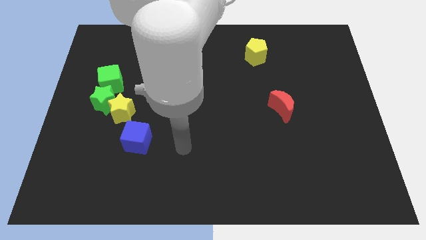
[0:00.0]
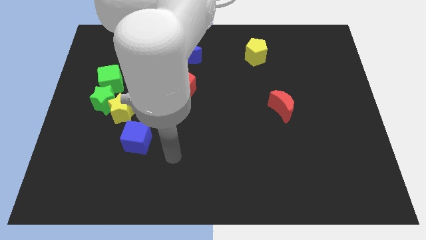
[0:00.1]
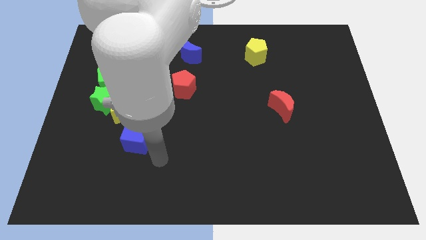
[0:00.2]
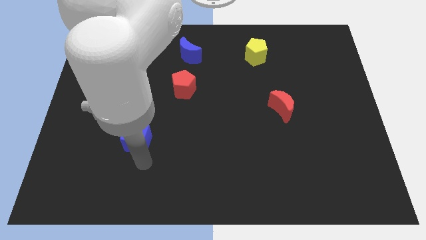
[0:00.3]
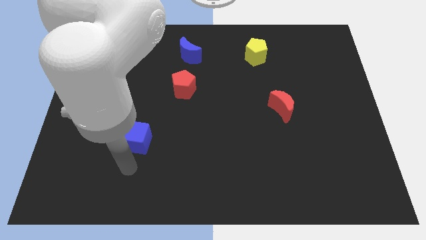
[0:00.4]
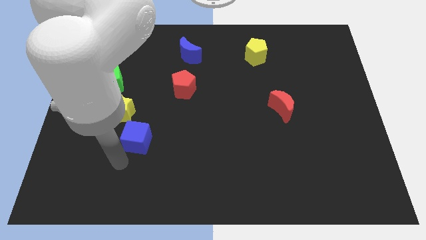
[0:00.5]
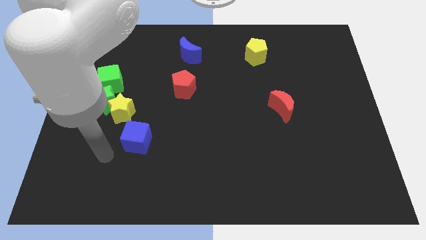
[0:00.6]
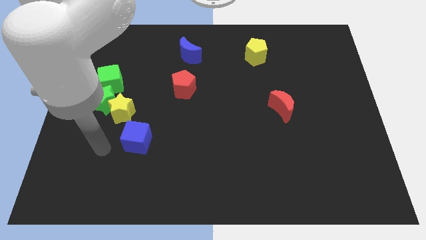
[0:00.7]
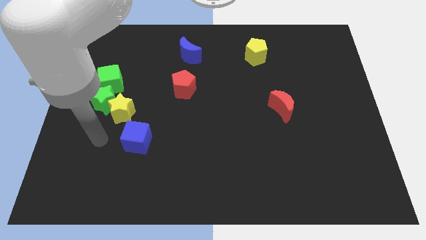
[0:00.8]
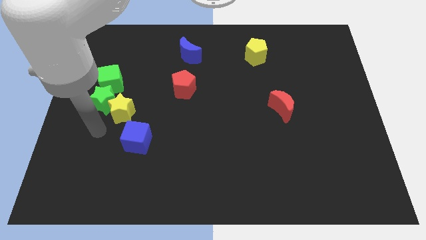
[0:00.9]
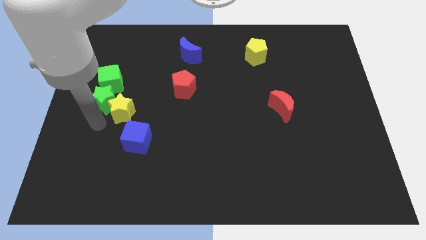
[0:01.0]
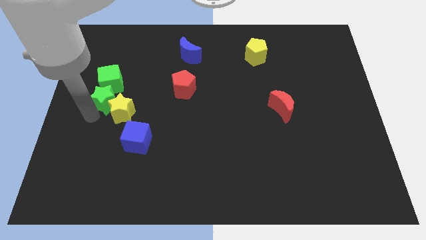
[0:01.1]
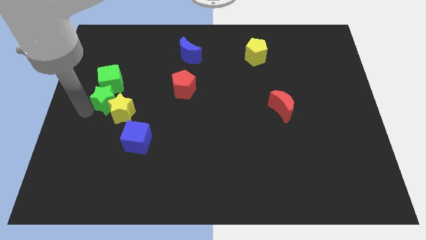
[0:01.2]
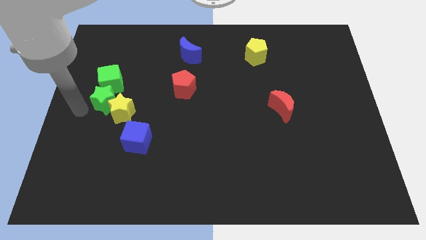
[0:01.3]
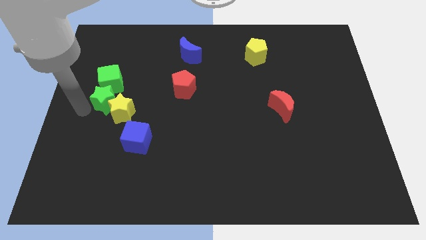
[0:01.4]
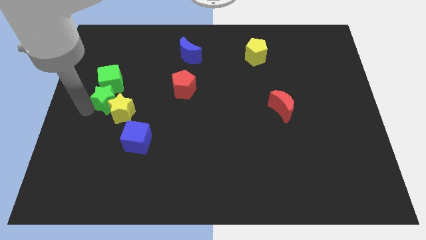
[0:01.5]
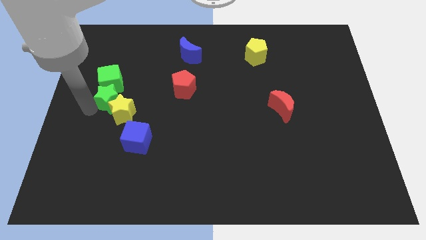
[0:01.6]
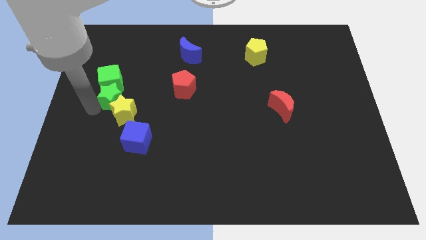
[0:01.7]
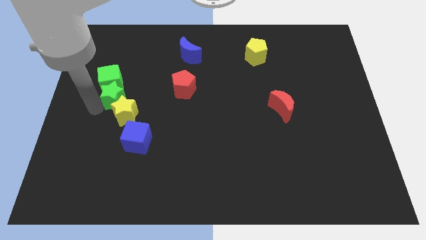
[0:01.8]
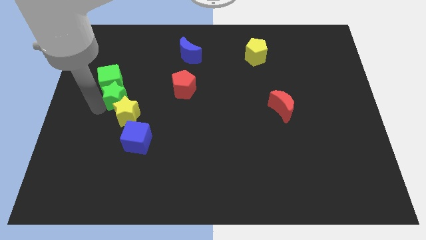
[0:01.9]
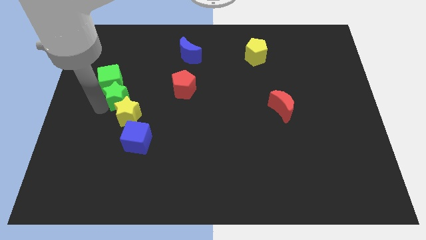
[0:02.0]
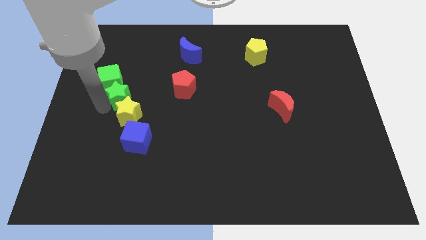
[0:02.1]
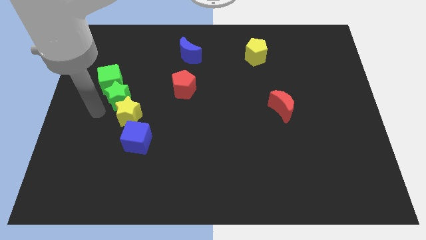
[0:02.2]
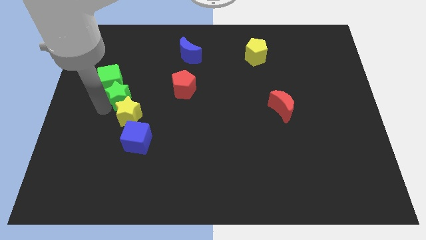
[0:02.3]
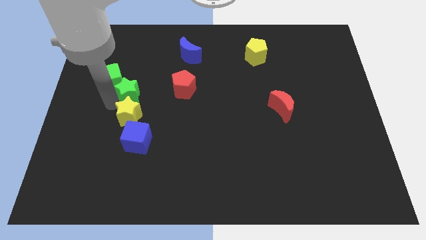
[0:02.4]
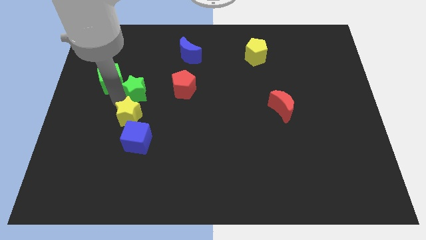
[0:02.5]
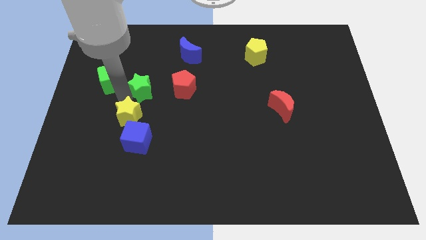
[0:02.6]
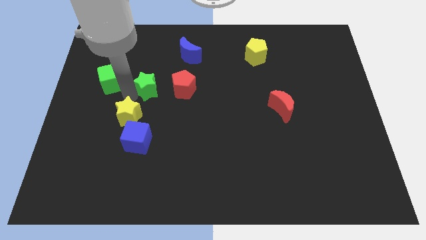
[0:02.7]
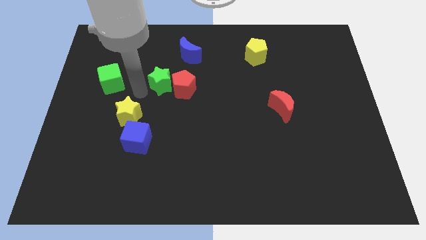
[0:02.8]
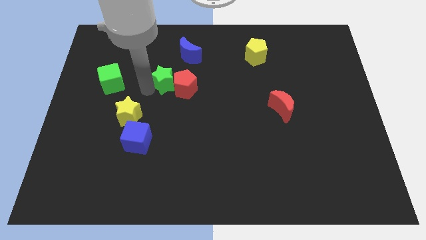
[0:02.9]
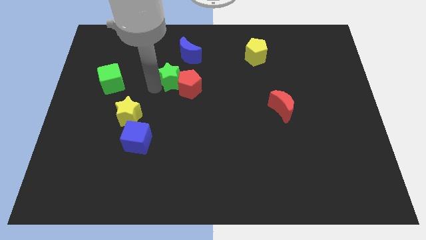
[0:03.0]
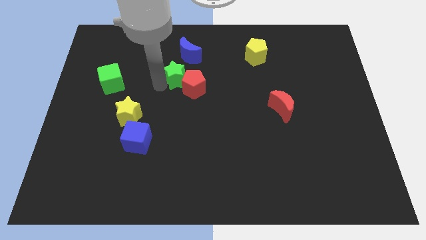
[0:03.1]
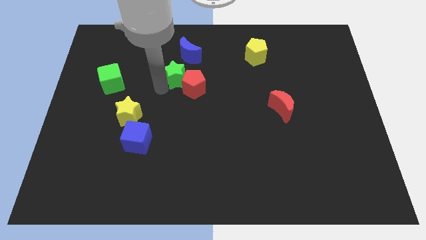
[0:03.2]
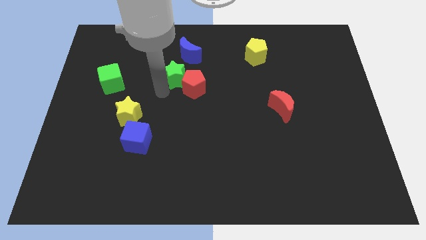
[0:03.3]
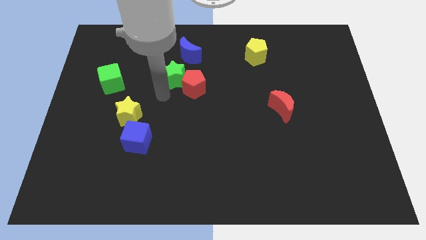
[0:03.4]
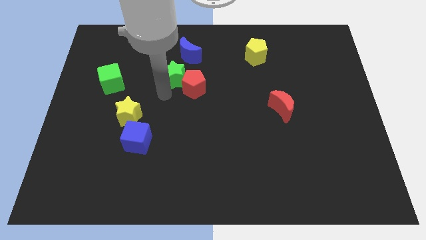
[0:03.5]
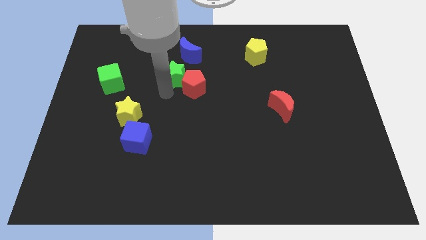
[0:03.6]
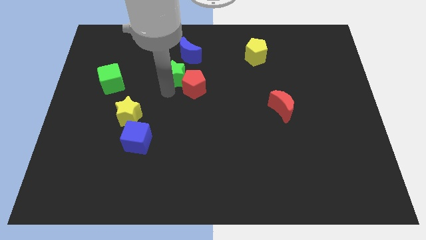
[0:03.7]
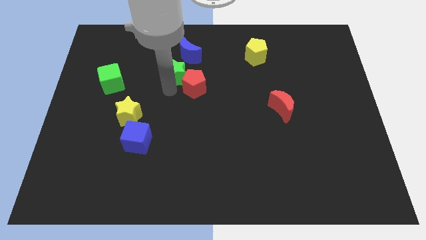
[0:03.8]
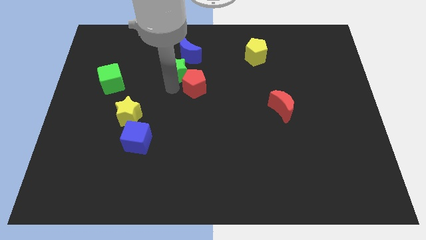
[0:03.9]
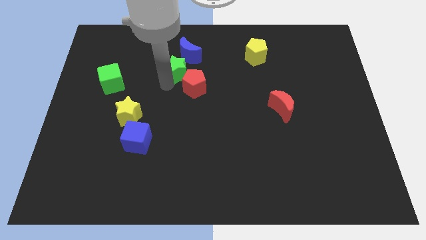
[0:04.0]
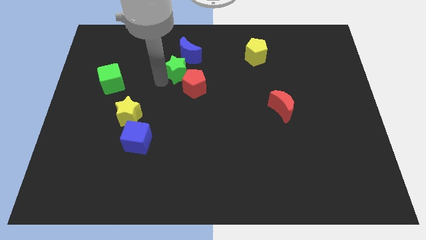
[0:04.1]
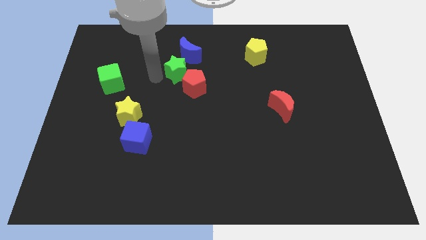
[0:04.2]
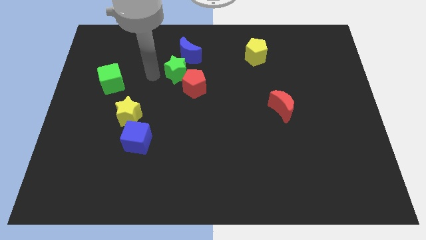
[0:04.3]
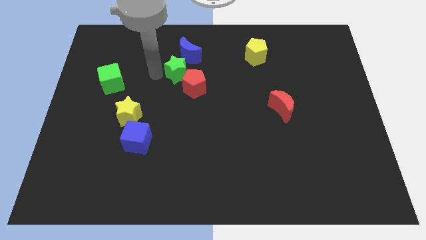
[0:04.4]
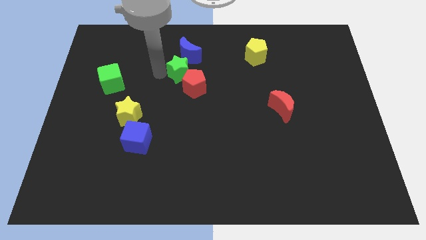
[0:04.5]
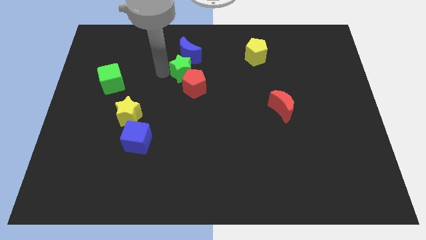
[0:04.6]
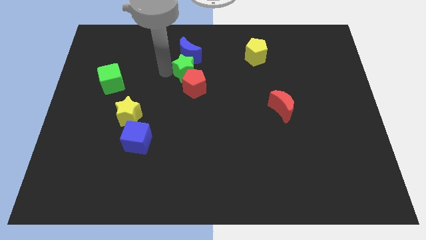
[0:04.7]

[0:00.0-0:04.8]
put the green star to the bottom right side of the blue moon

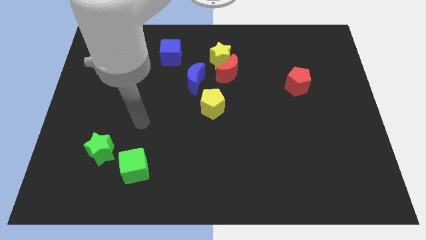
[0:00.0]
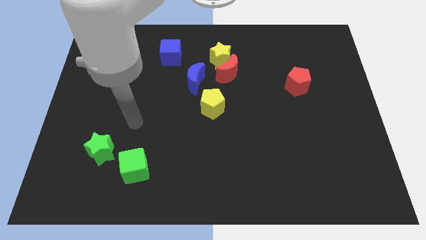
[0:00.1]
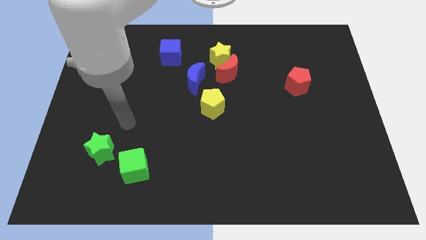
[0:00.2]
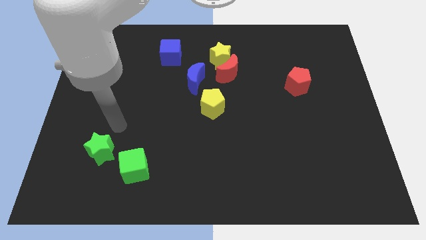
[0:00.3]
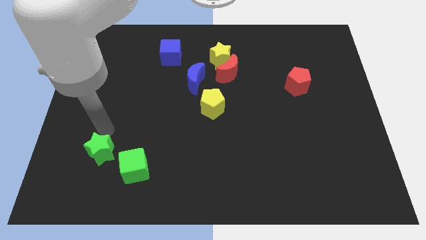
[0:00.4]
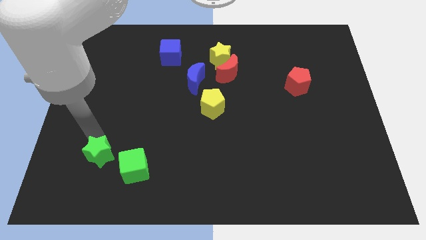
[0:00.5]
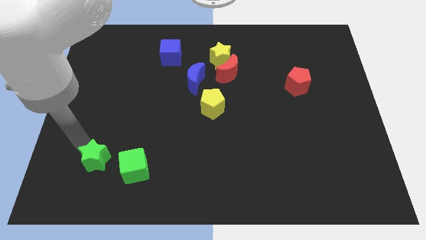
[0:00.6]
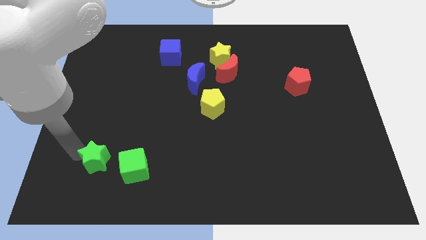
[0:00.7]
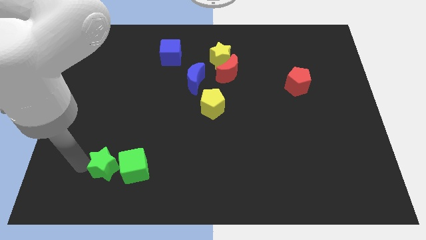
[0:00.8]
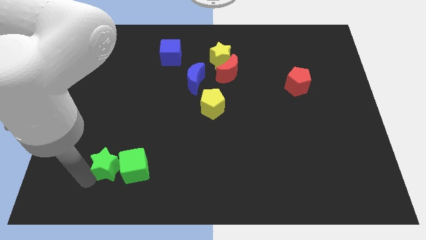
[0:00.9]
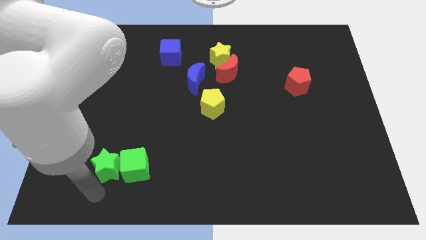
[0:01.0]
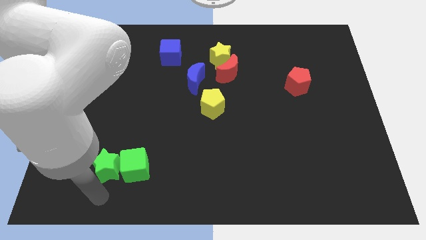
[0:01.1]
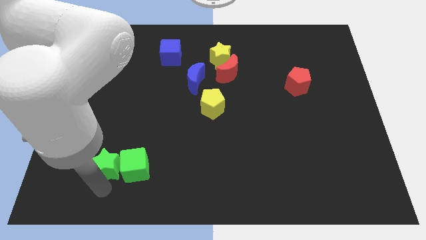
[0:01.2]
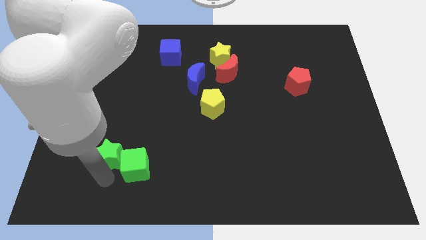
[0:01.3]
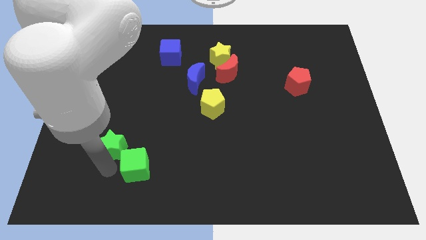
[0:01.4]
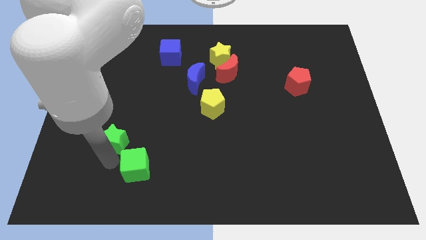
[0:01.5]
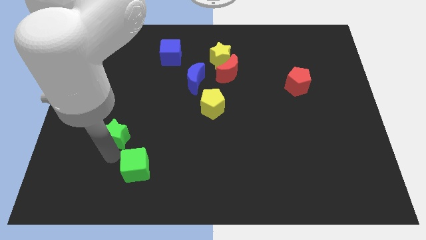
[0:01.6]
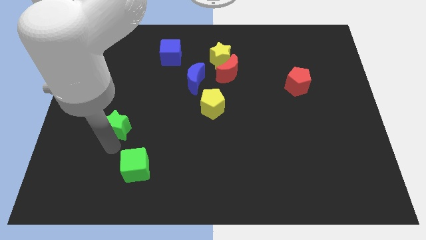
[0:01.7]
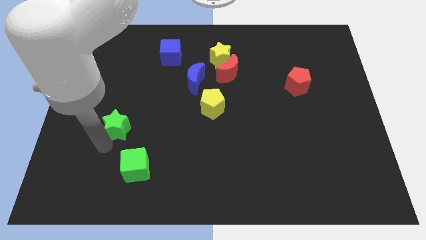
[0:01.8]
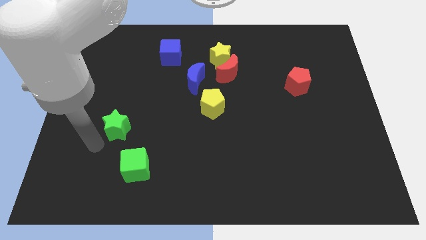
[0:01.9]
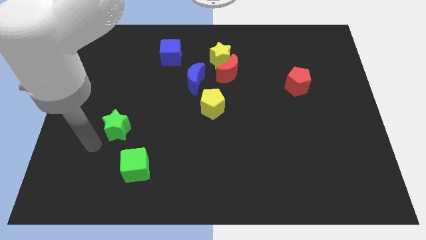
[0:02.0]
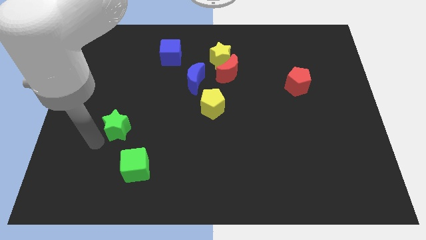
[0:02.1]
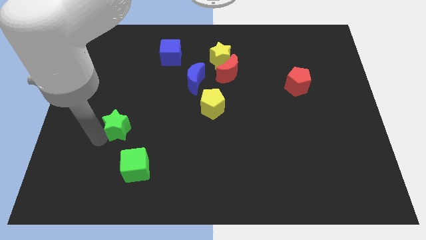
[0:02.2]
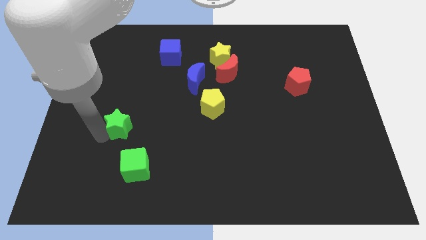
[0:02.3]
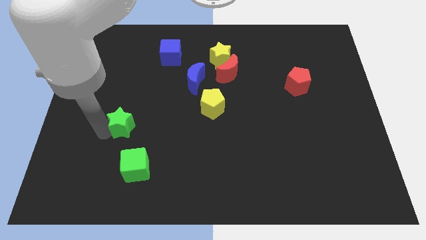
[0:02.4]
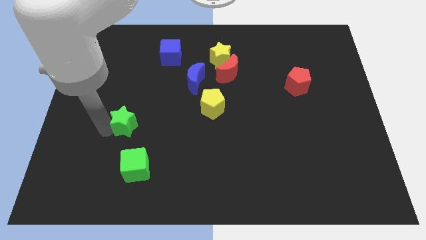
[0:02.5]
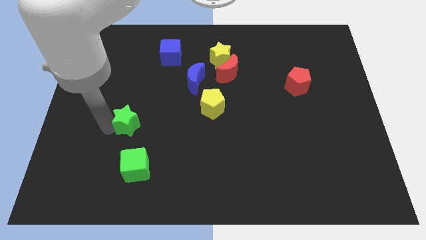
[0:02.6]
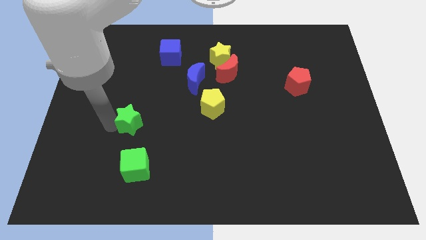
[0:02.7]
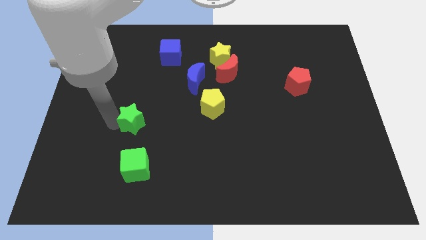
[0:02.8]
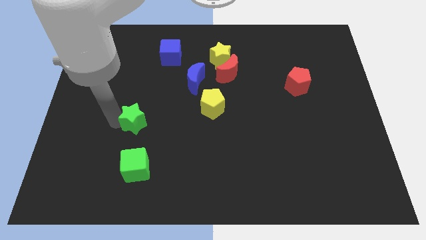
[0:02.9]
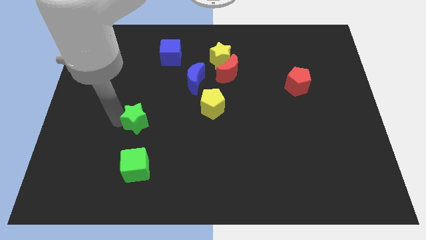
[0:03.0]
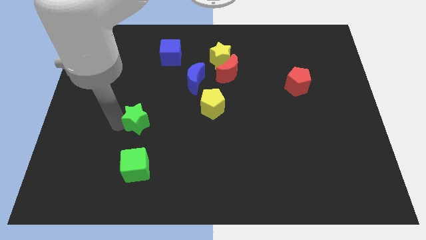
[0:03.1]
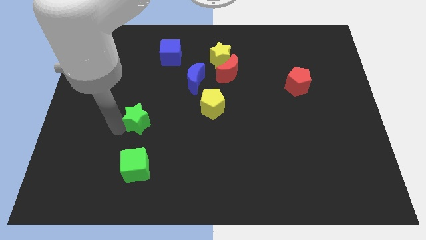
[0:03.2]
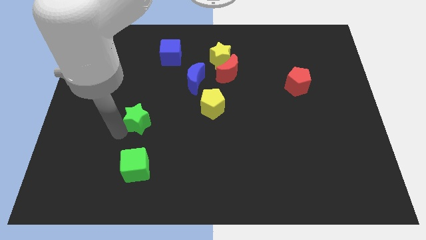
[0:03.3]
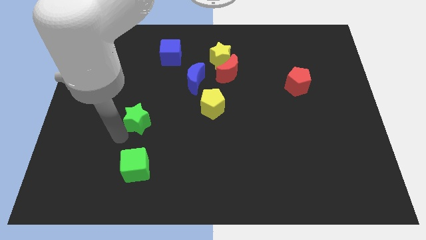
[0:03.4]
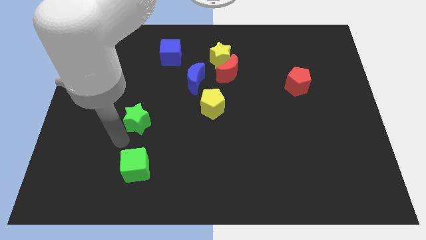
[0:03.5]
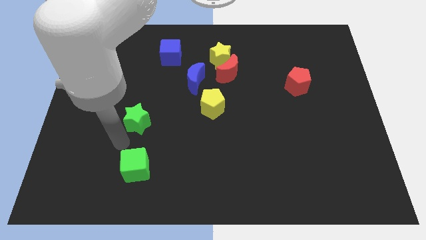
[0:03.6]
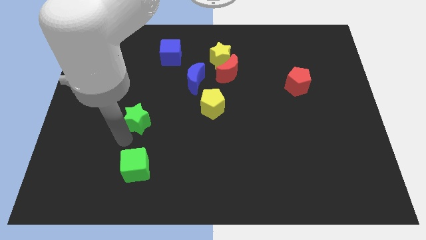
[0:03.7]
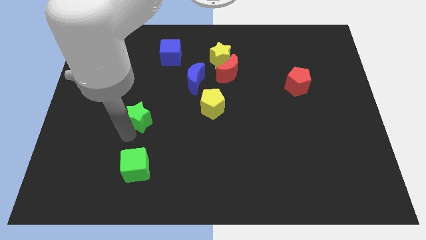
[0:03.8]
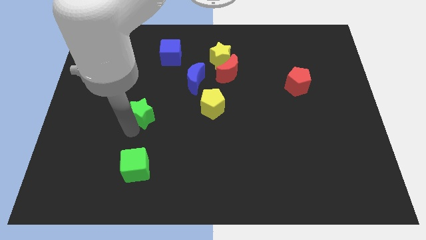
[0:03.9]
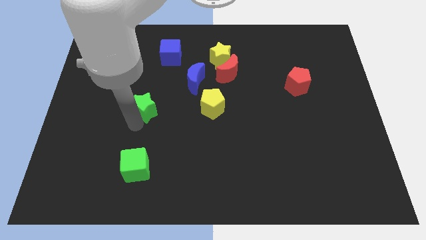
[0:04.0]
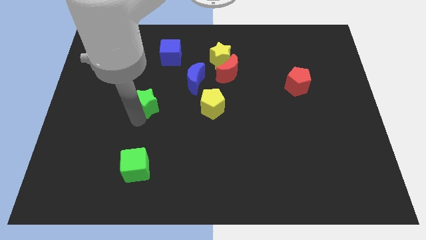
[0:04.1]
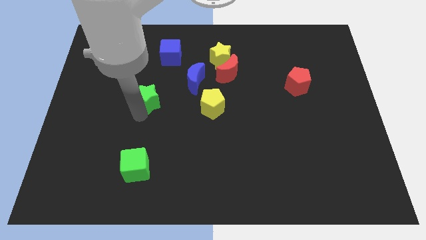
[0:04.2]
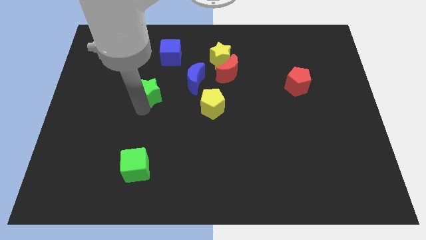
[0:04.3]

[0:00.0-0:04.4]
move the green star to the bottom side of the blue cube
